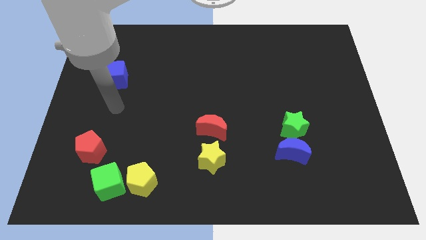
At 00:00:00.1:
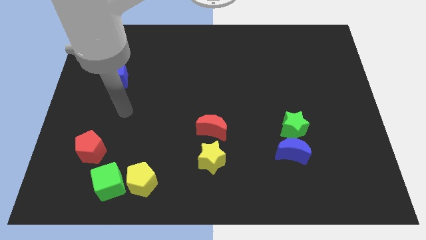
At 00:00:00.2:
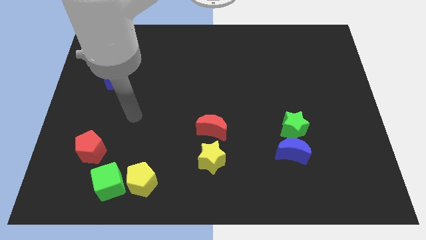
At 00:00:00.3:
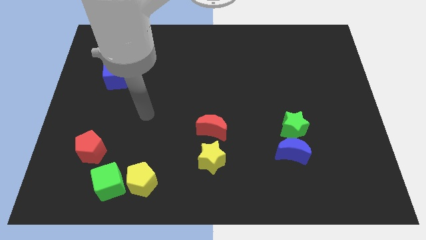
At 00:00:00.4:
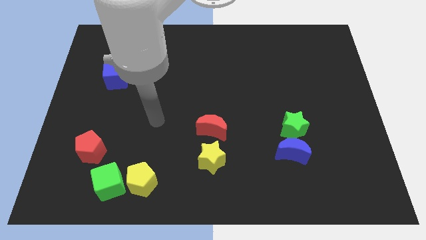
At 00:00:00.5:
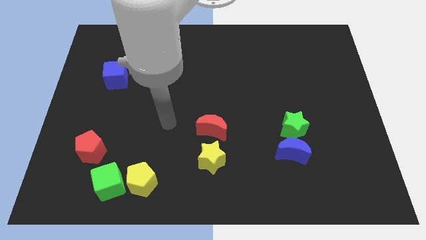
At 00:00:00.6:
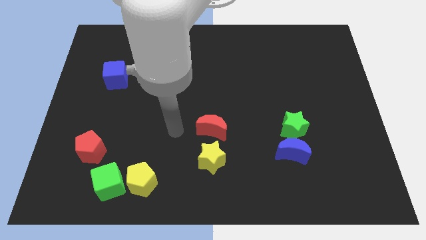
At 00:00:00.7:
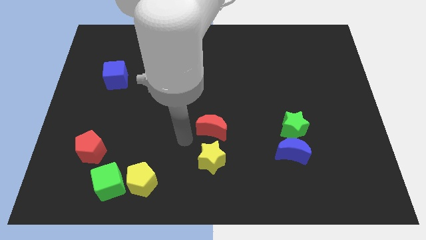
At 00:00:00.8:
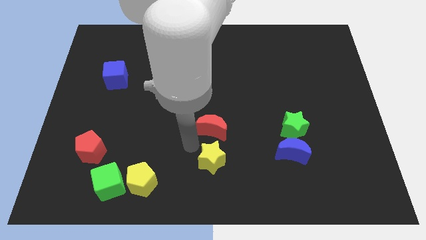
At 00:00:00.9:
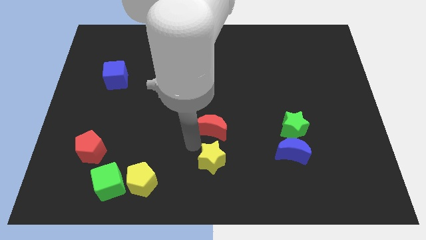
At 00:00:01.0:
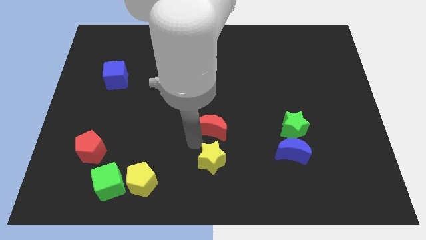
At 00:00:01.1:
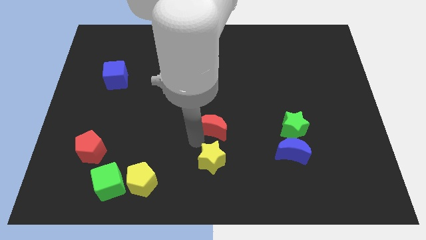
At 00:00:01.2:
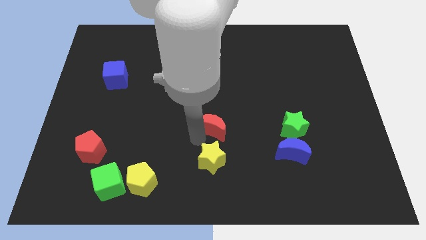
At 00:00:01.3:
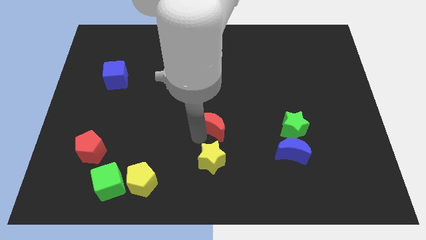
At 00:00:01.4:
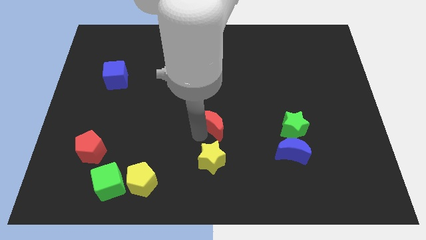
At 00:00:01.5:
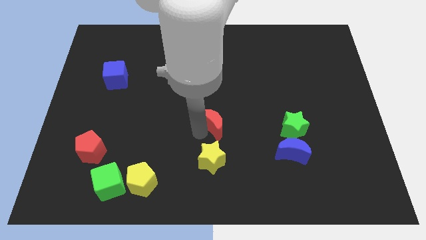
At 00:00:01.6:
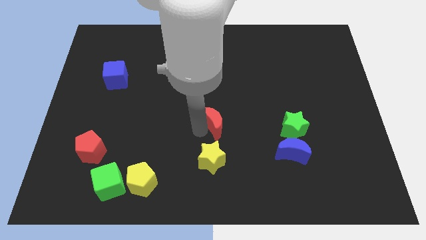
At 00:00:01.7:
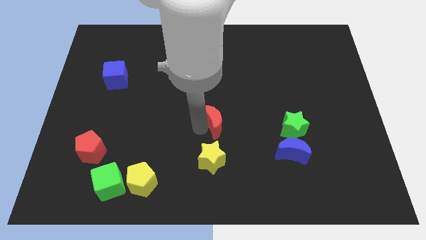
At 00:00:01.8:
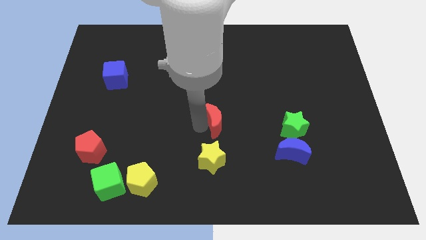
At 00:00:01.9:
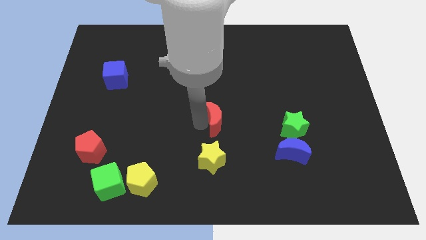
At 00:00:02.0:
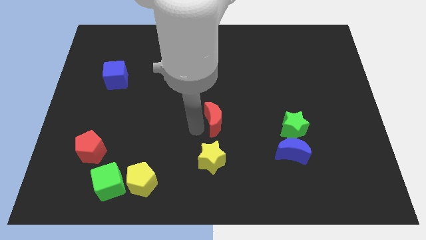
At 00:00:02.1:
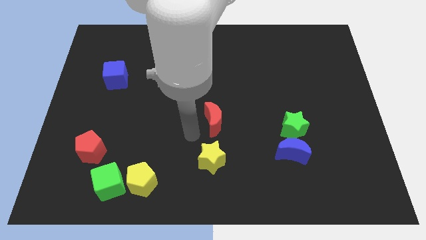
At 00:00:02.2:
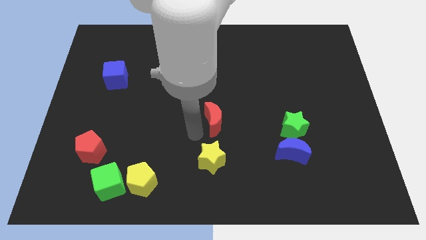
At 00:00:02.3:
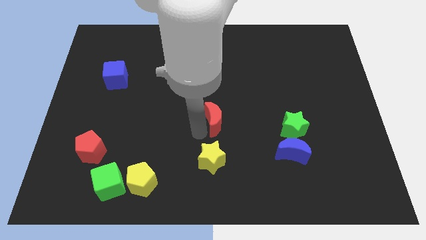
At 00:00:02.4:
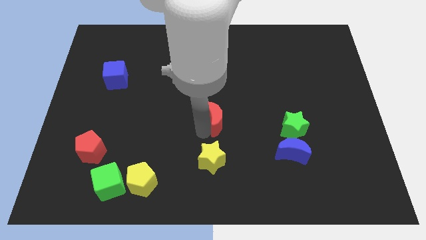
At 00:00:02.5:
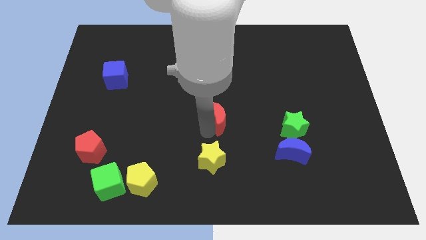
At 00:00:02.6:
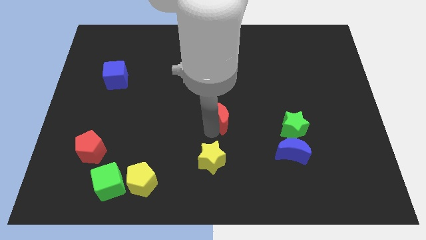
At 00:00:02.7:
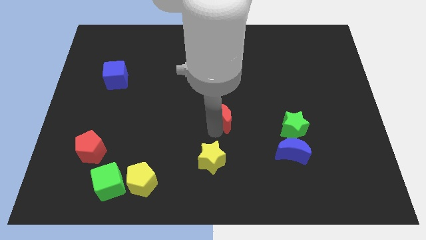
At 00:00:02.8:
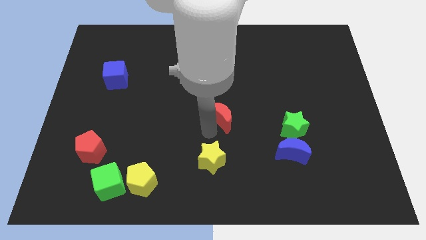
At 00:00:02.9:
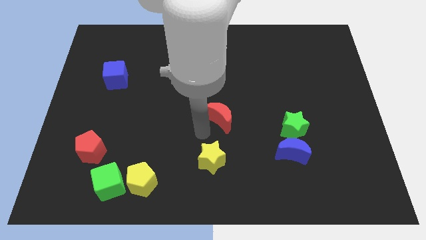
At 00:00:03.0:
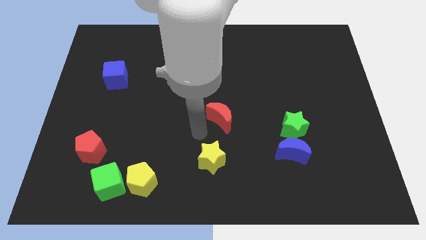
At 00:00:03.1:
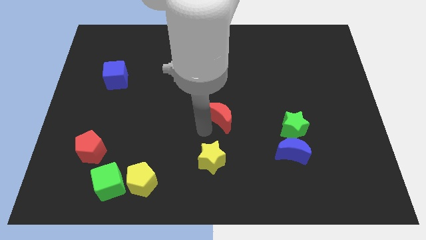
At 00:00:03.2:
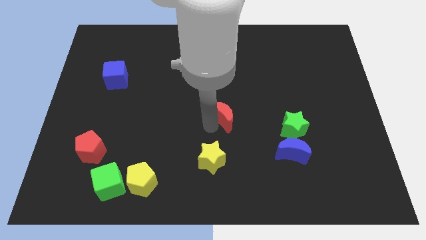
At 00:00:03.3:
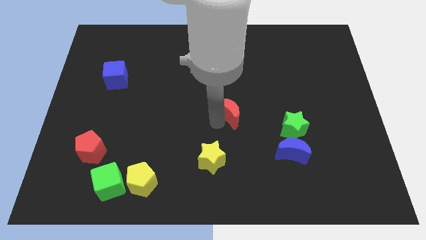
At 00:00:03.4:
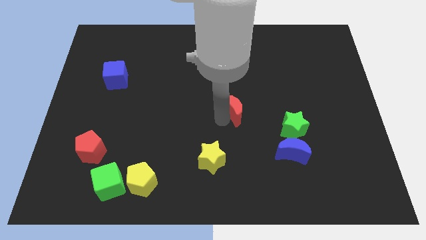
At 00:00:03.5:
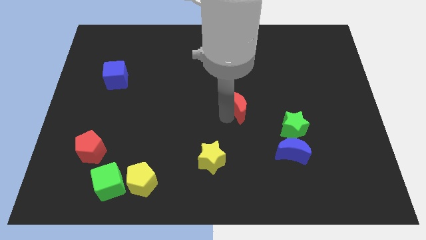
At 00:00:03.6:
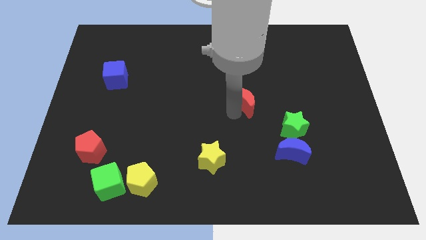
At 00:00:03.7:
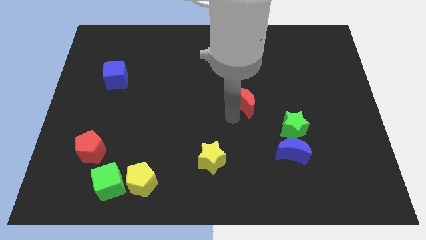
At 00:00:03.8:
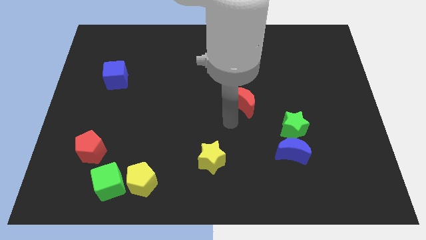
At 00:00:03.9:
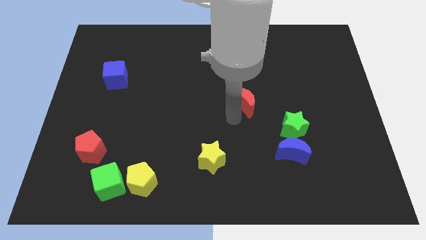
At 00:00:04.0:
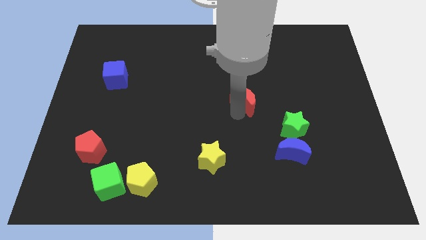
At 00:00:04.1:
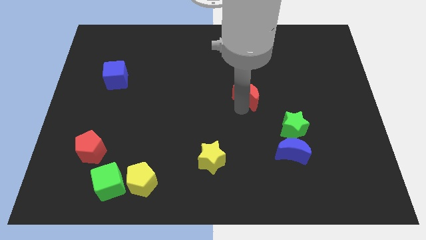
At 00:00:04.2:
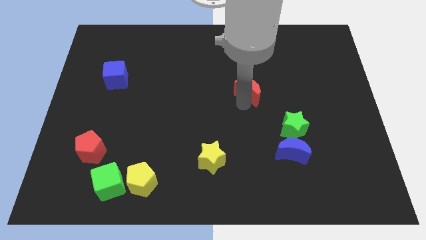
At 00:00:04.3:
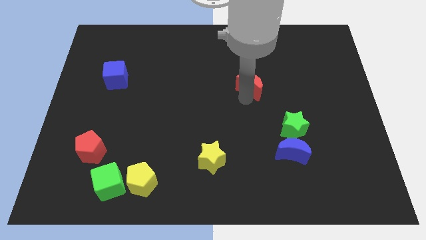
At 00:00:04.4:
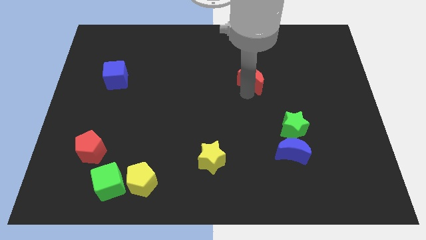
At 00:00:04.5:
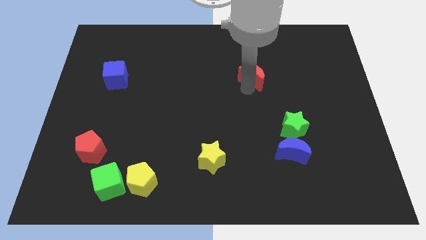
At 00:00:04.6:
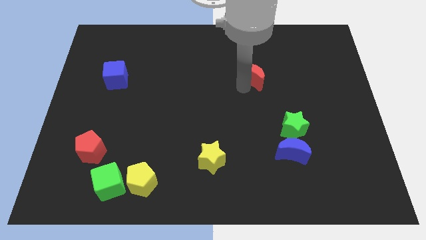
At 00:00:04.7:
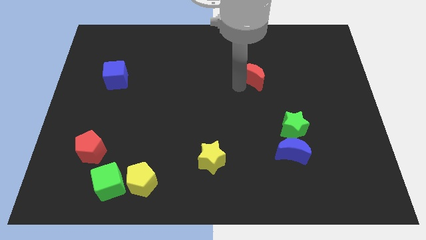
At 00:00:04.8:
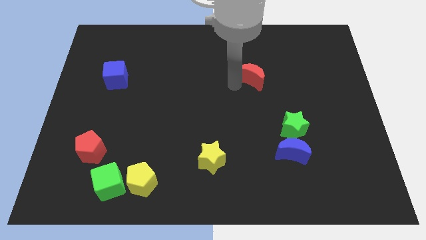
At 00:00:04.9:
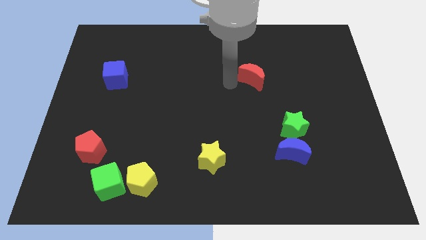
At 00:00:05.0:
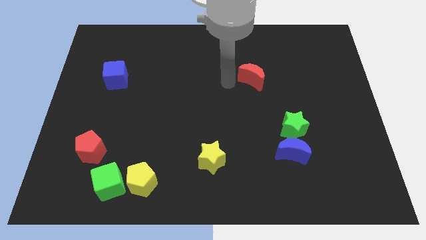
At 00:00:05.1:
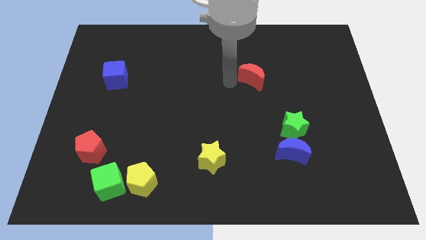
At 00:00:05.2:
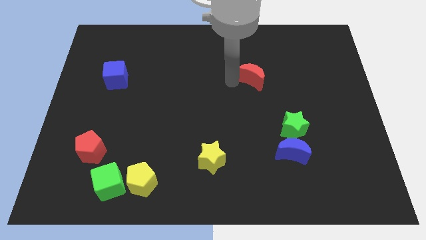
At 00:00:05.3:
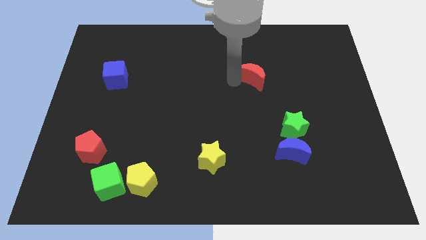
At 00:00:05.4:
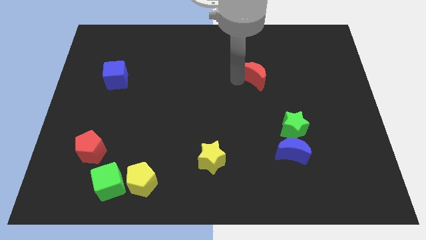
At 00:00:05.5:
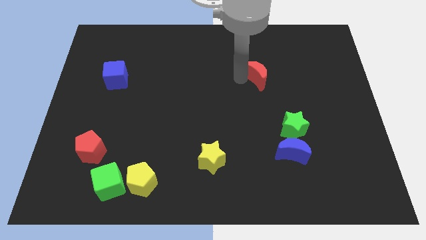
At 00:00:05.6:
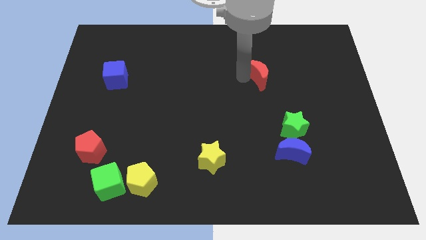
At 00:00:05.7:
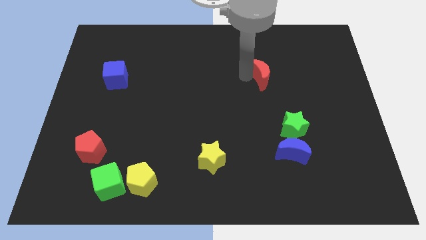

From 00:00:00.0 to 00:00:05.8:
slide the red moon up and right

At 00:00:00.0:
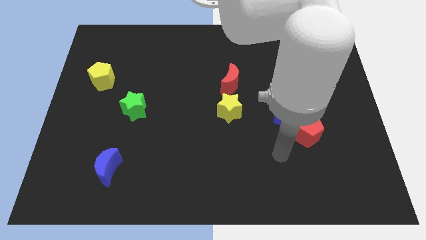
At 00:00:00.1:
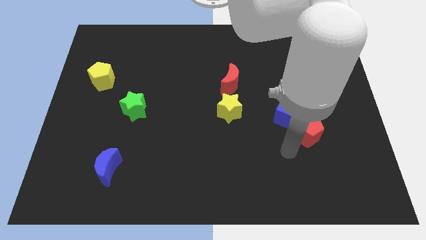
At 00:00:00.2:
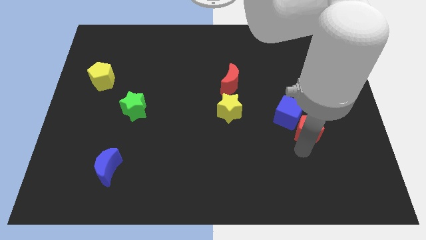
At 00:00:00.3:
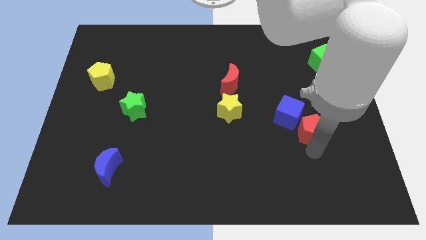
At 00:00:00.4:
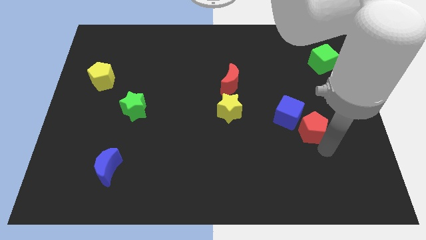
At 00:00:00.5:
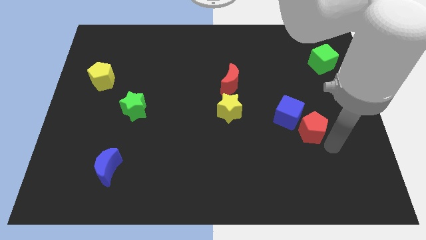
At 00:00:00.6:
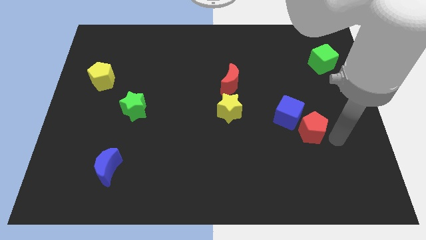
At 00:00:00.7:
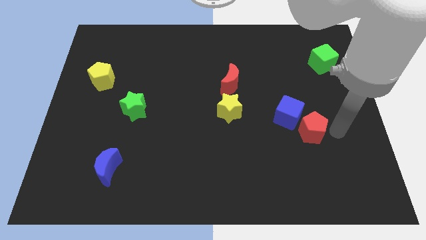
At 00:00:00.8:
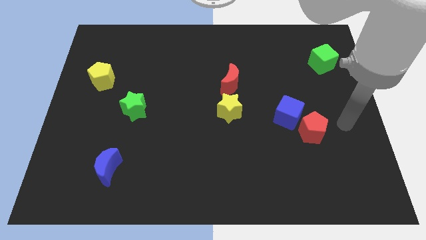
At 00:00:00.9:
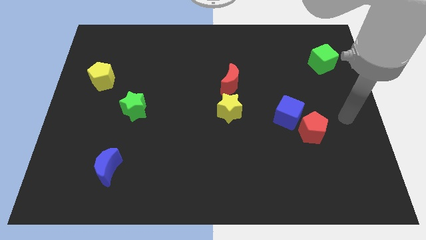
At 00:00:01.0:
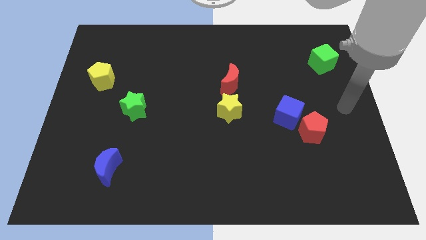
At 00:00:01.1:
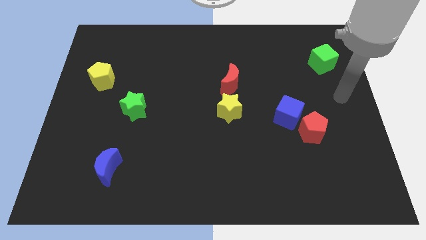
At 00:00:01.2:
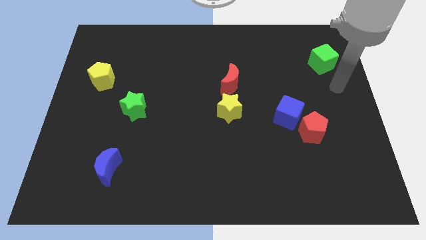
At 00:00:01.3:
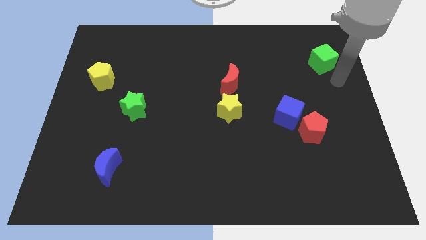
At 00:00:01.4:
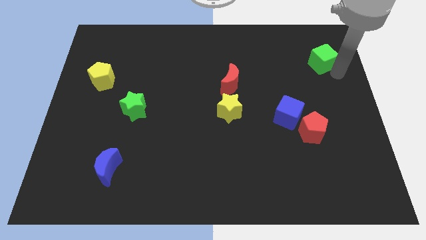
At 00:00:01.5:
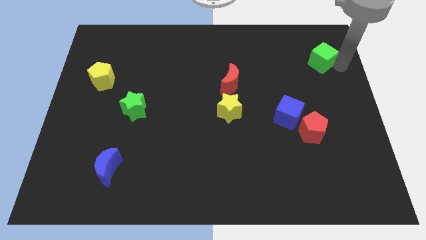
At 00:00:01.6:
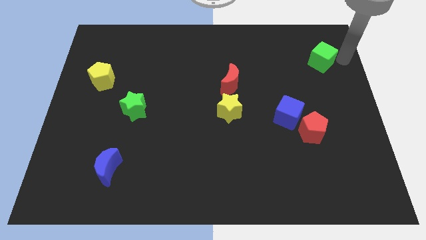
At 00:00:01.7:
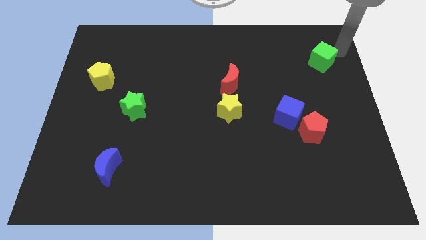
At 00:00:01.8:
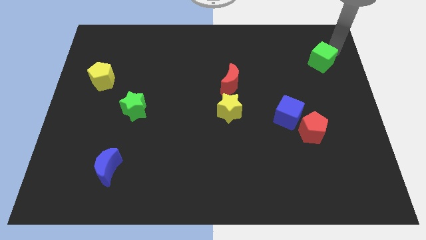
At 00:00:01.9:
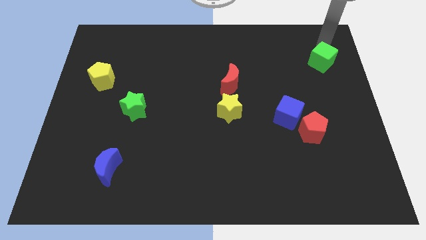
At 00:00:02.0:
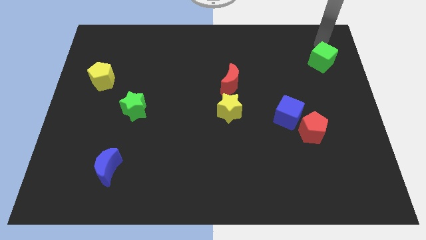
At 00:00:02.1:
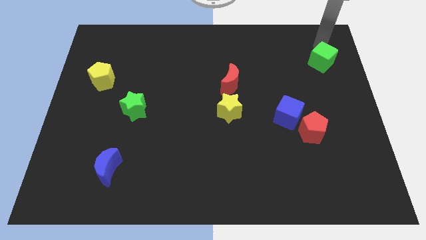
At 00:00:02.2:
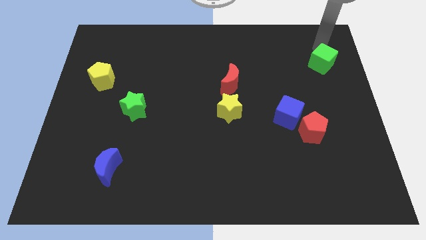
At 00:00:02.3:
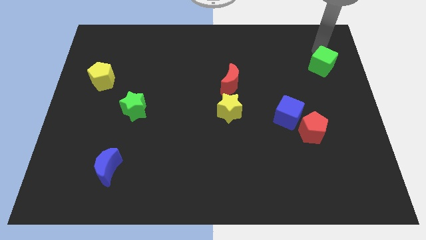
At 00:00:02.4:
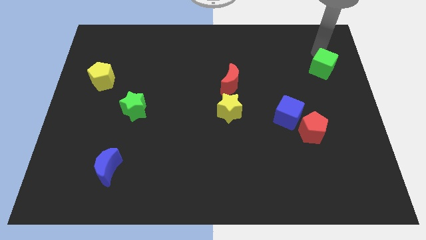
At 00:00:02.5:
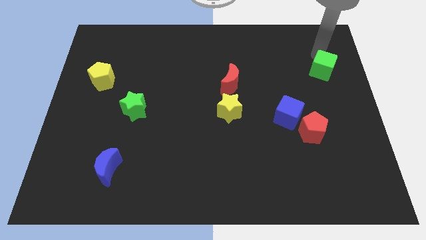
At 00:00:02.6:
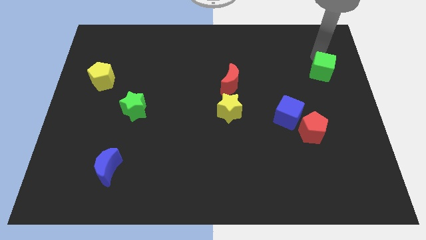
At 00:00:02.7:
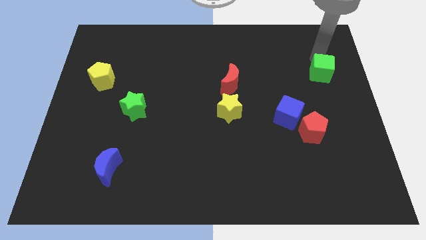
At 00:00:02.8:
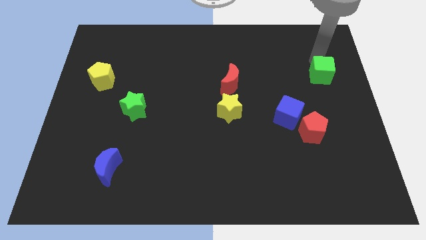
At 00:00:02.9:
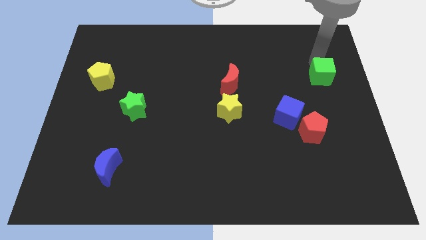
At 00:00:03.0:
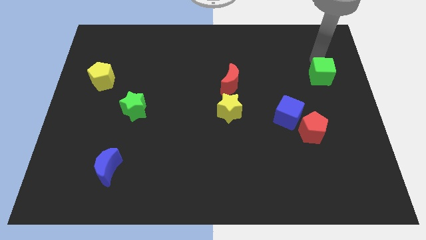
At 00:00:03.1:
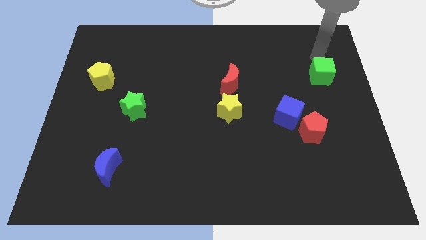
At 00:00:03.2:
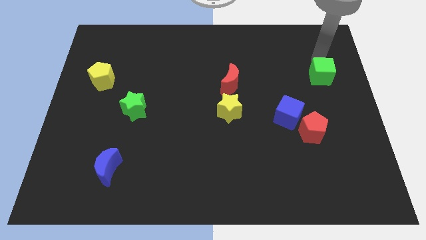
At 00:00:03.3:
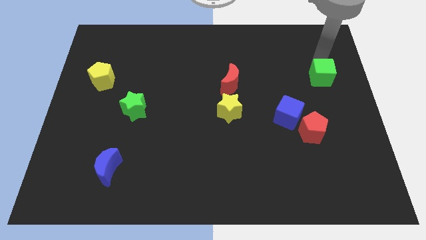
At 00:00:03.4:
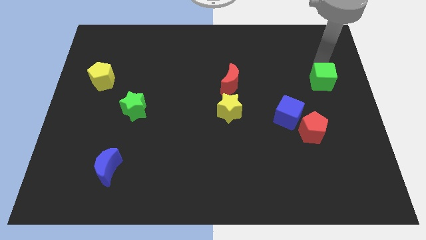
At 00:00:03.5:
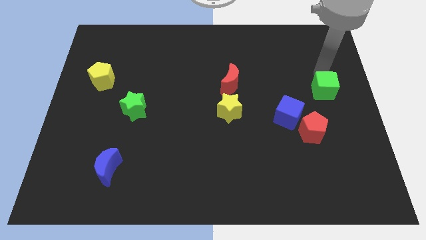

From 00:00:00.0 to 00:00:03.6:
slide the green cube downwards a bit
